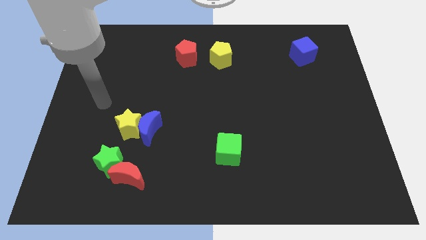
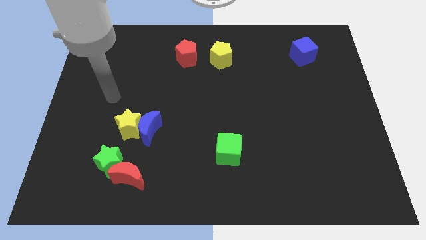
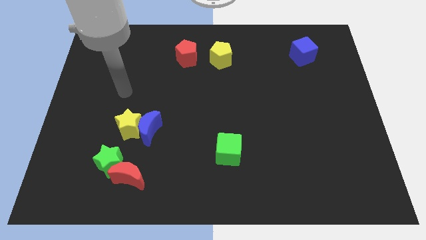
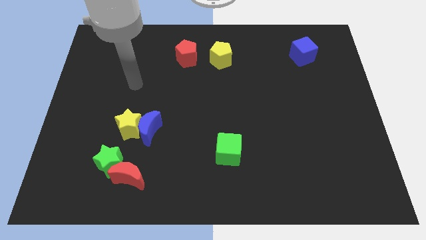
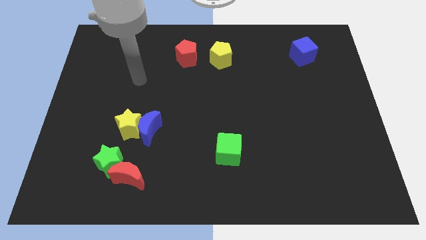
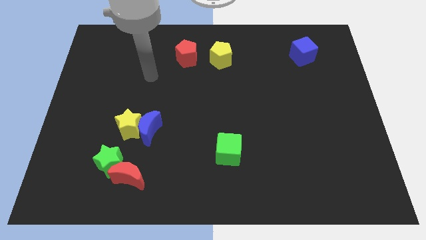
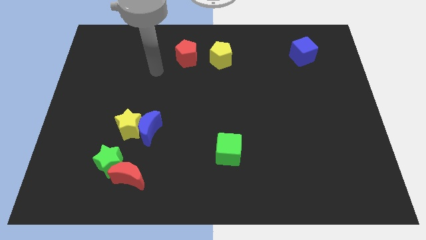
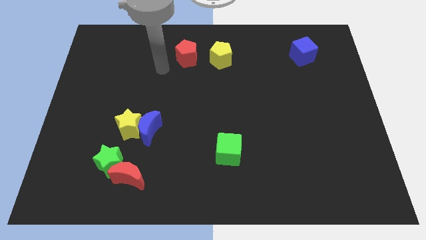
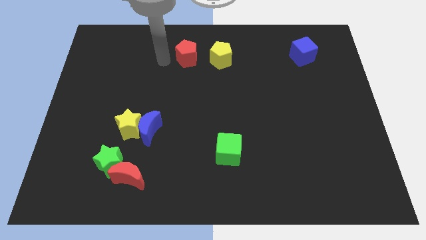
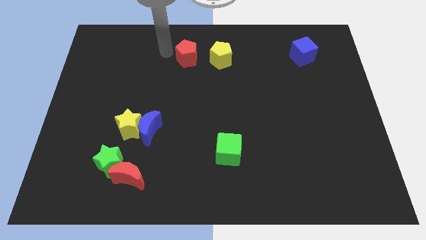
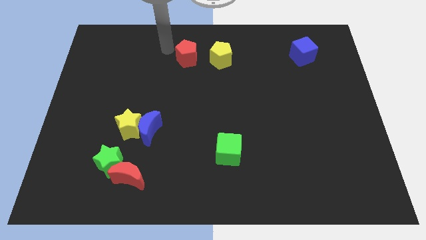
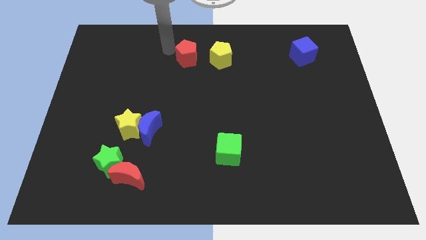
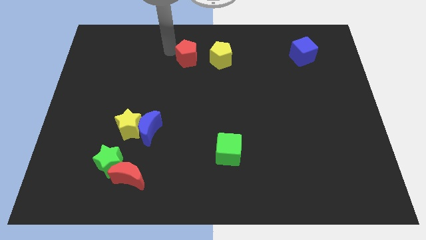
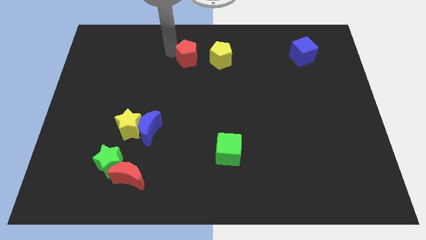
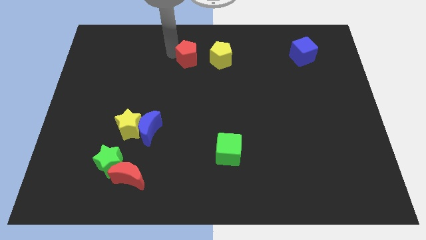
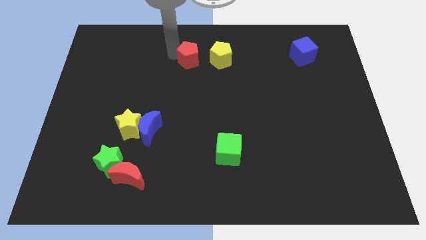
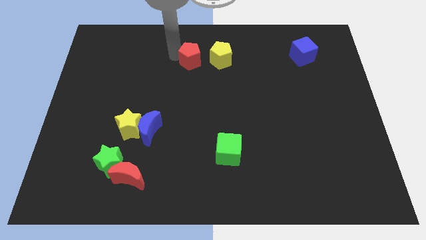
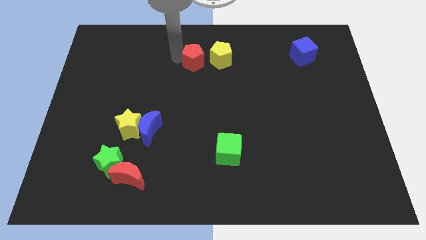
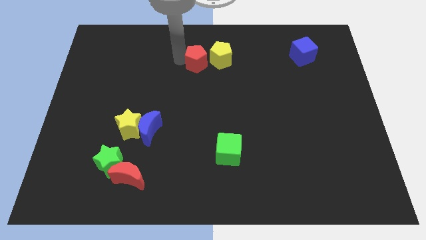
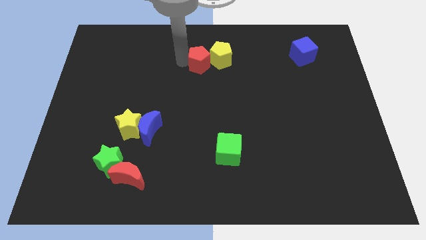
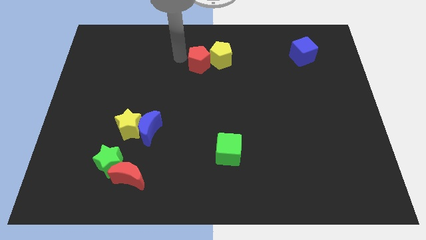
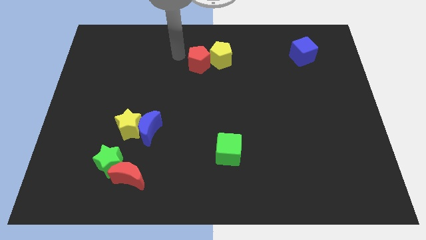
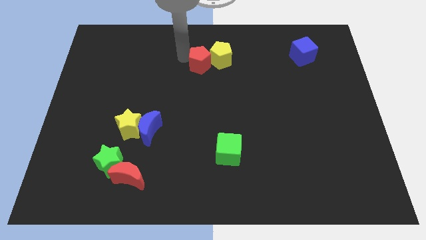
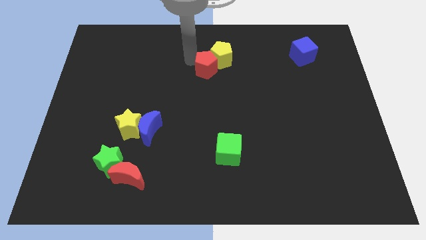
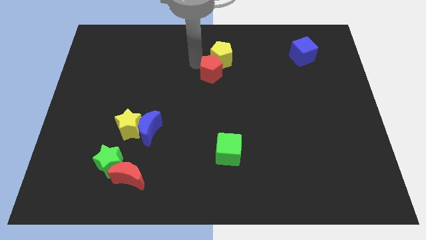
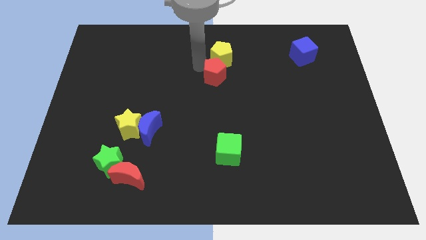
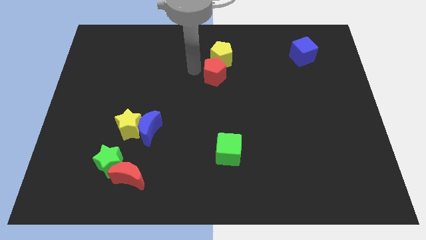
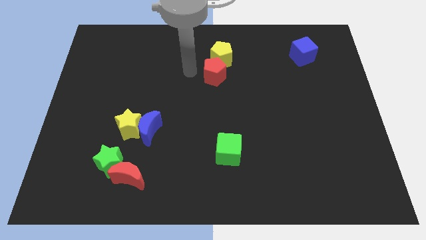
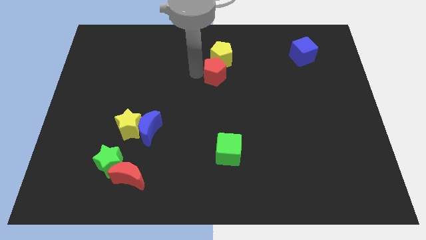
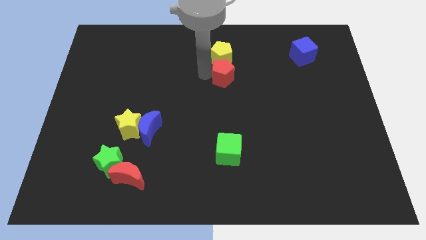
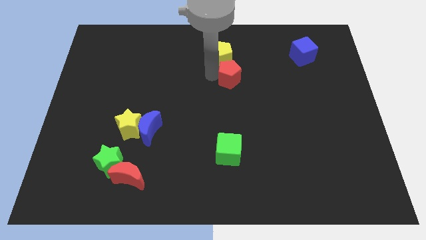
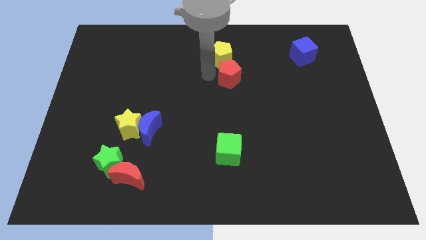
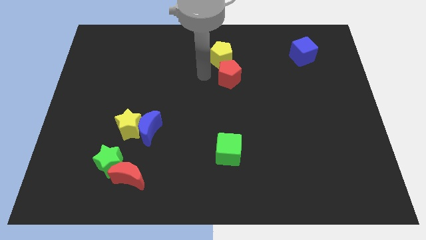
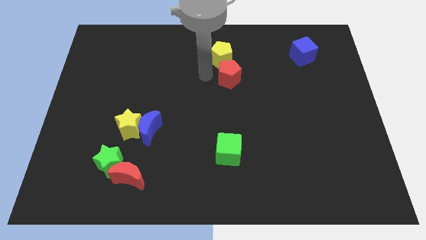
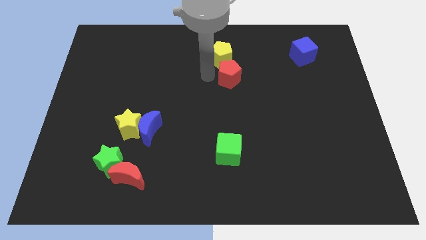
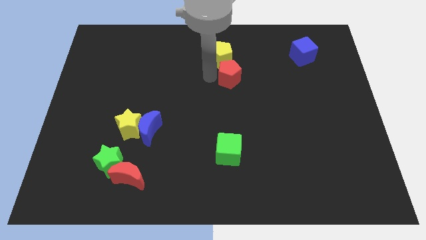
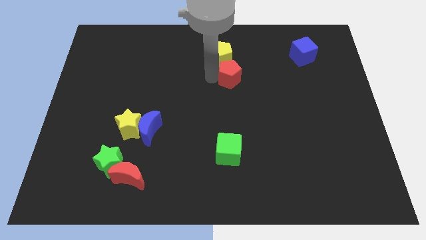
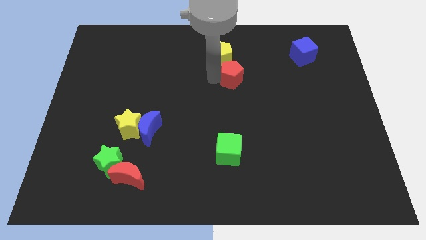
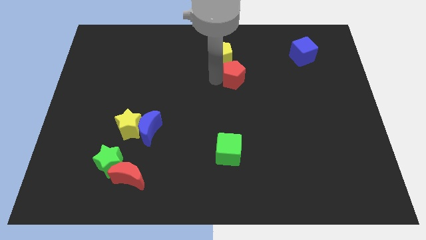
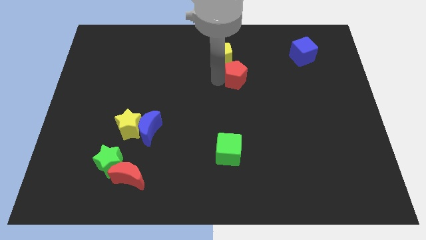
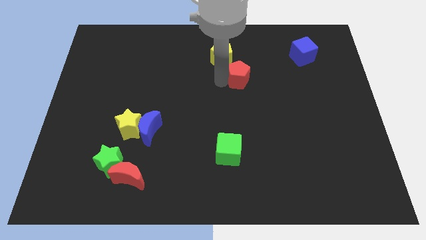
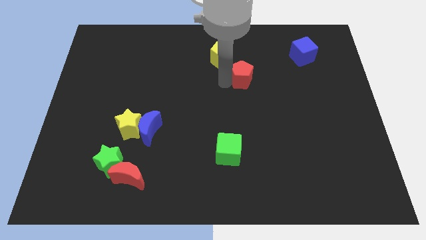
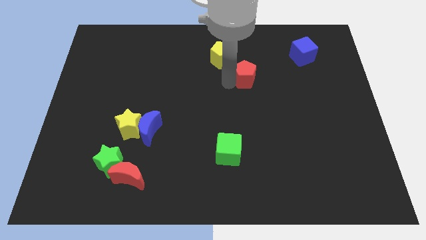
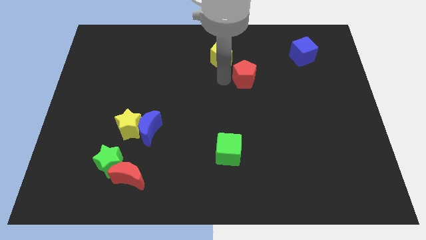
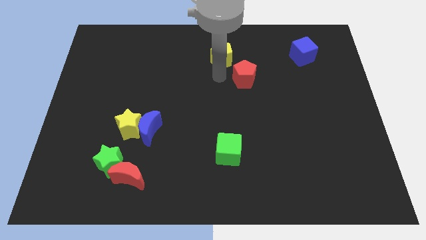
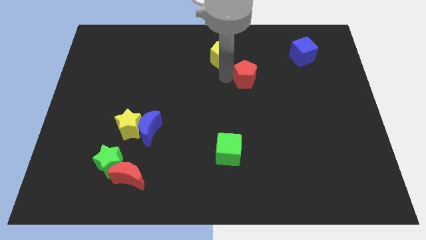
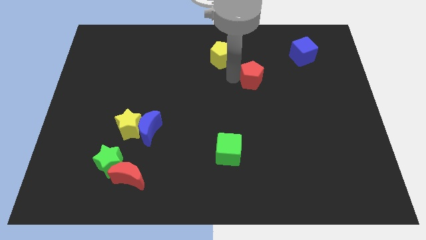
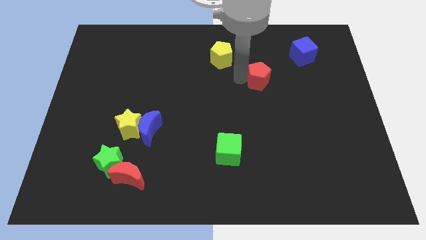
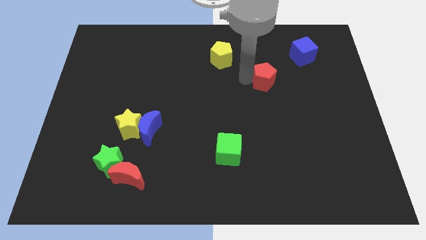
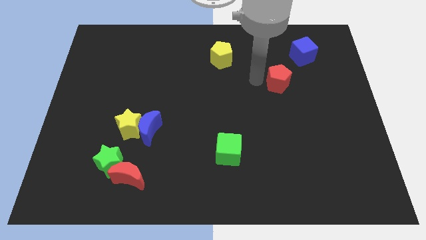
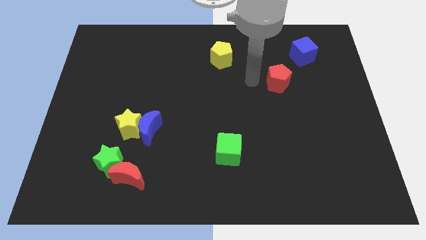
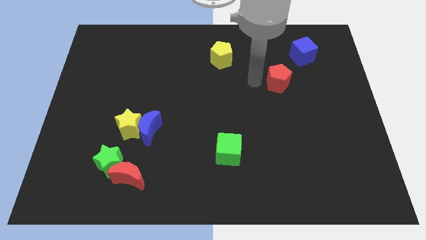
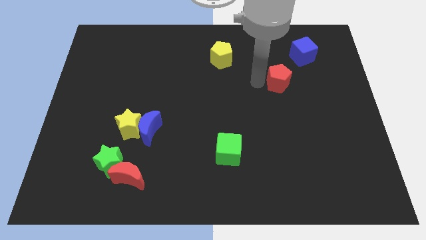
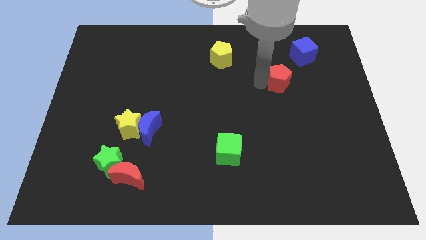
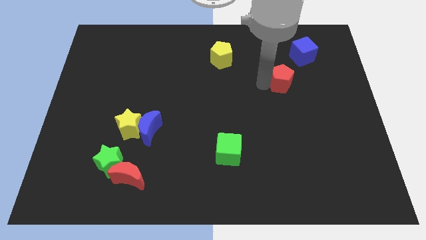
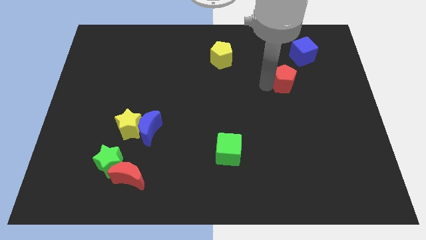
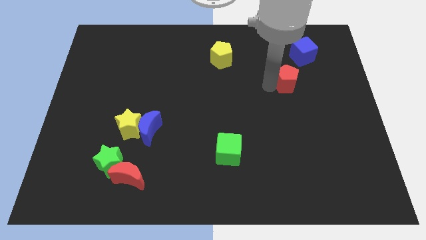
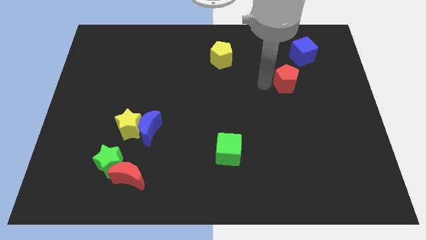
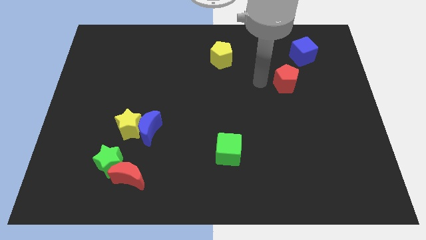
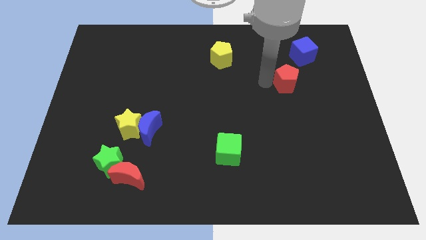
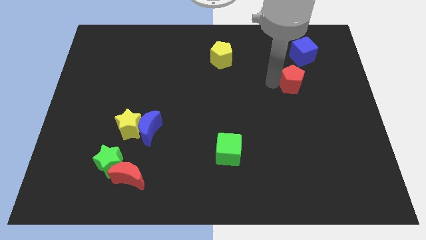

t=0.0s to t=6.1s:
move the red pentagon below the blue cube

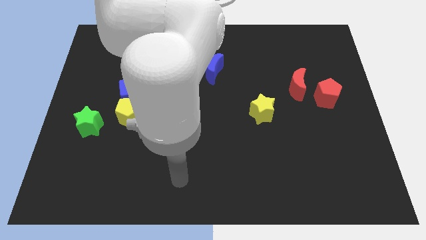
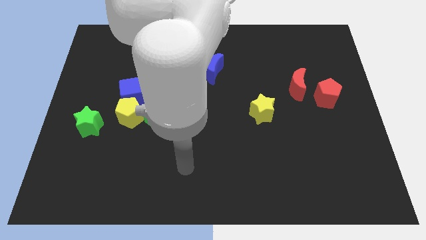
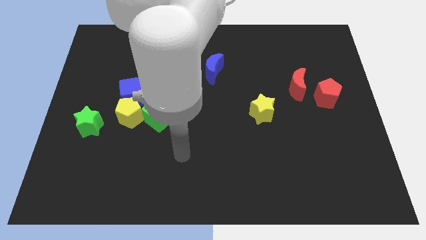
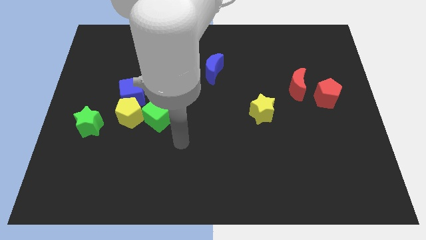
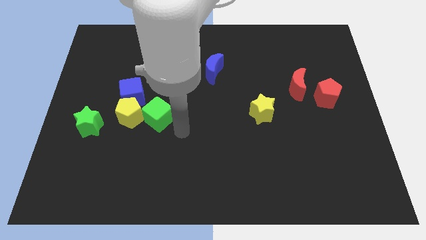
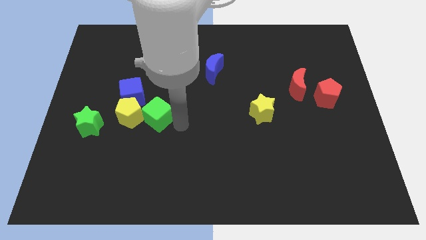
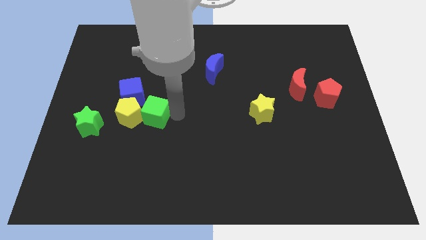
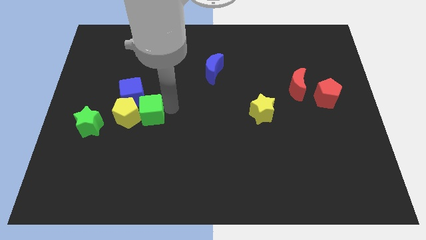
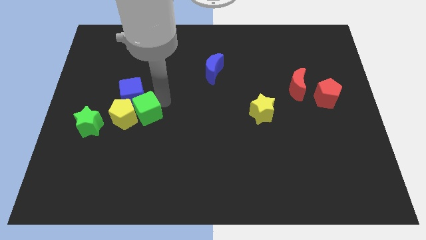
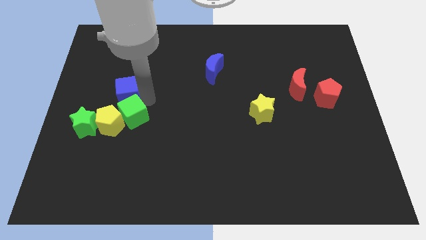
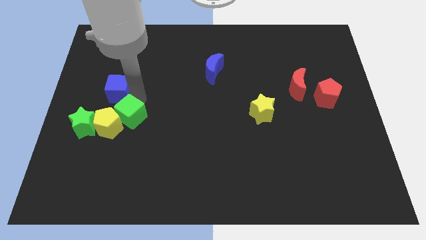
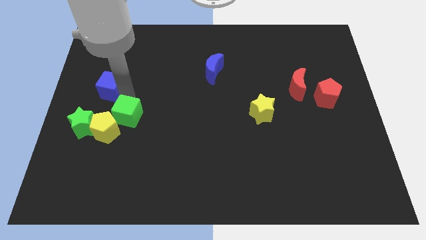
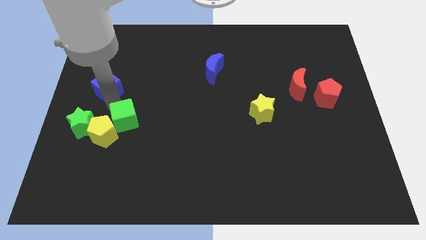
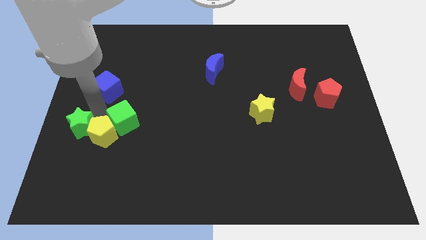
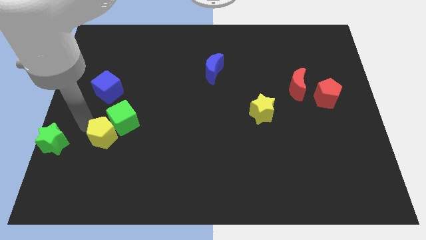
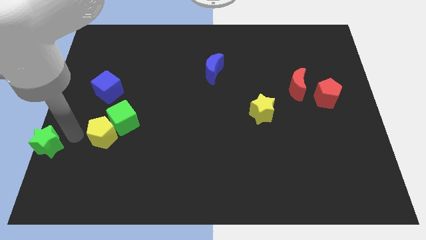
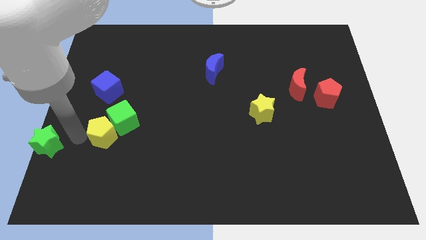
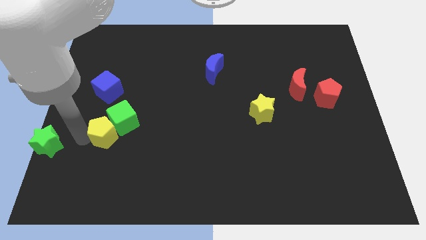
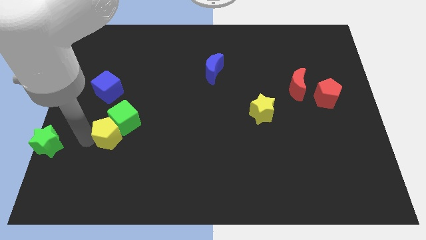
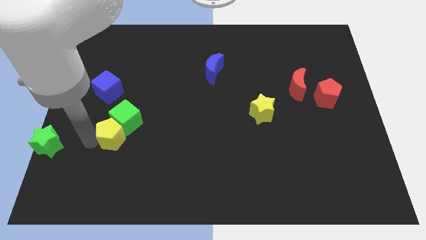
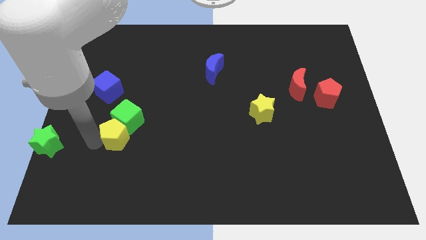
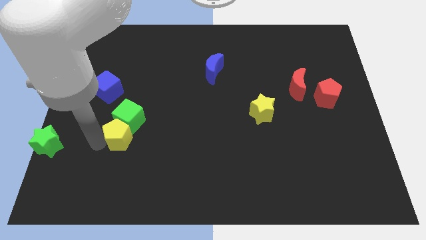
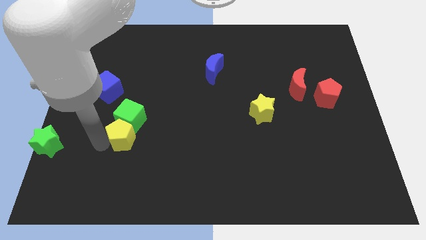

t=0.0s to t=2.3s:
push the yellow pentagon to the bottom right of the green cube
